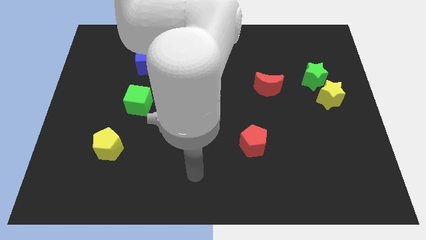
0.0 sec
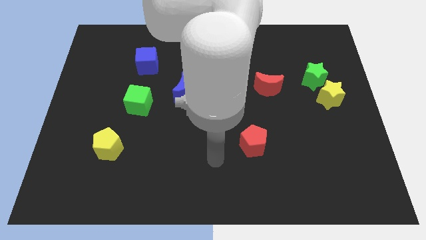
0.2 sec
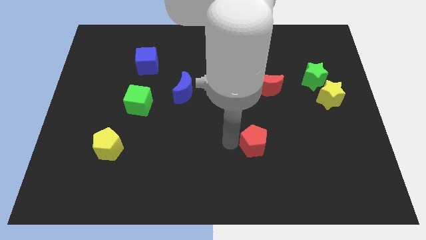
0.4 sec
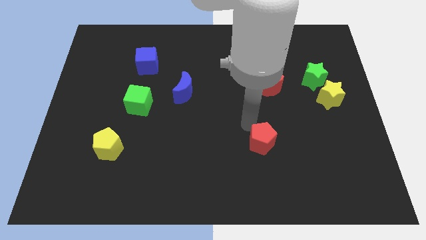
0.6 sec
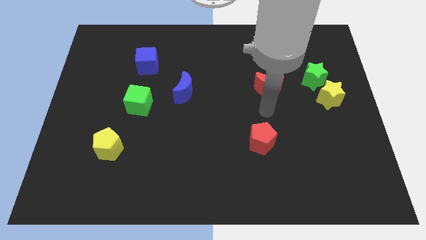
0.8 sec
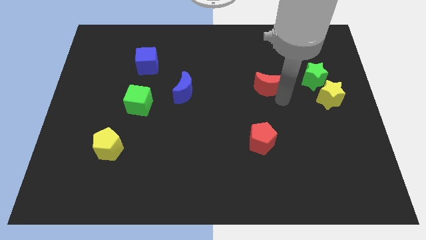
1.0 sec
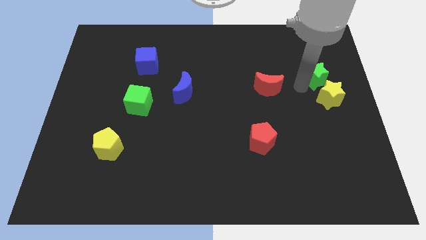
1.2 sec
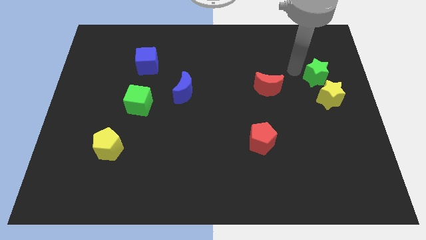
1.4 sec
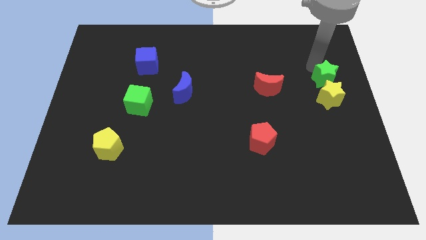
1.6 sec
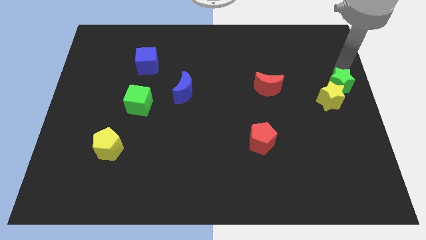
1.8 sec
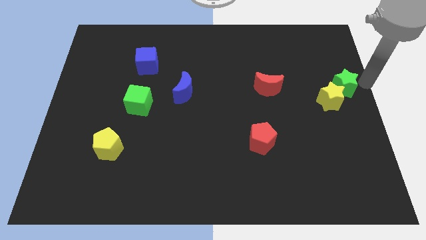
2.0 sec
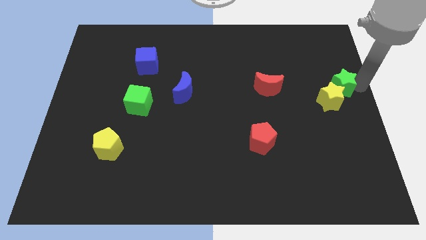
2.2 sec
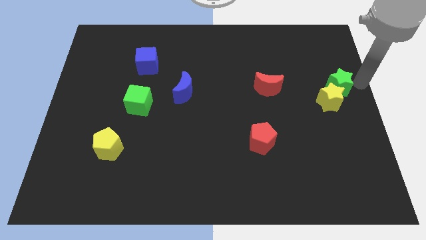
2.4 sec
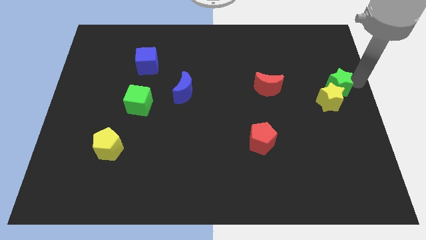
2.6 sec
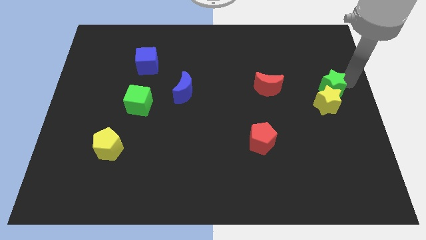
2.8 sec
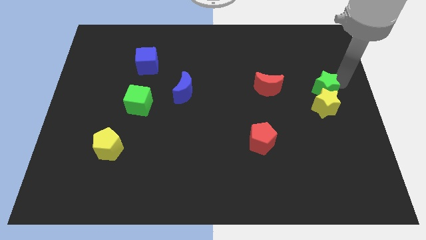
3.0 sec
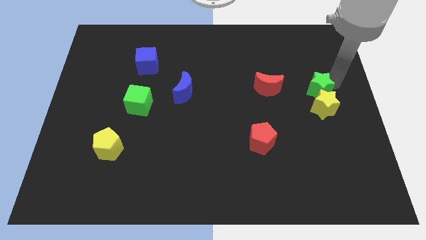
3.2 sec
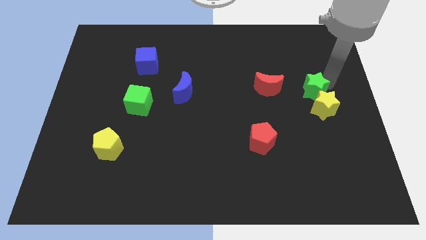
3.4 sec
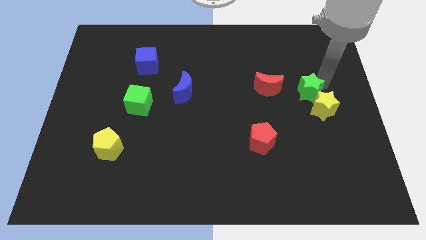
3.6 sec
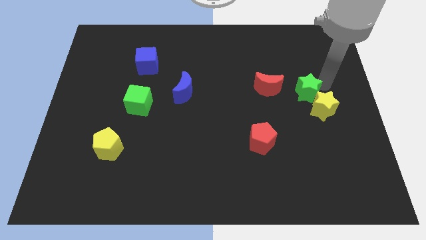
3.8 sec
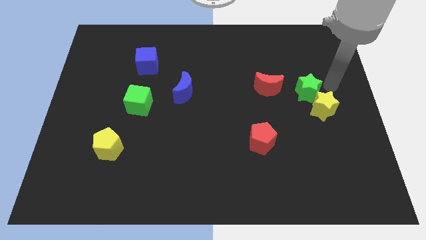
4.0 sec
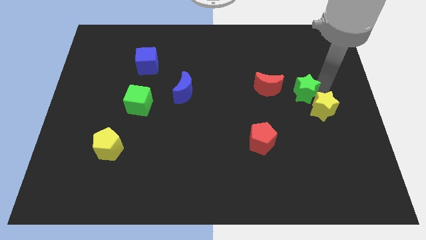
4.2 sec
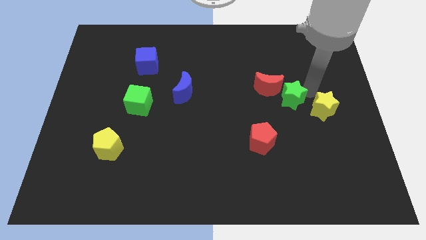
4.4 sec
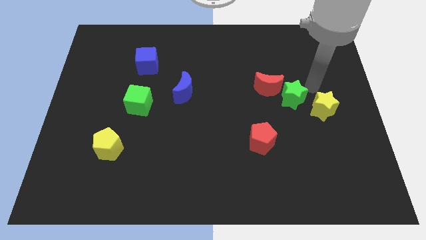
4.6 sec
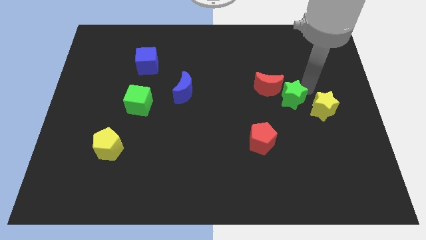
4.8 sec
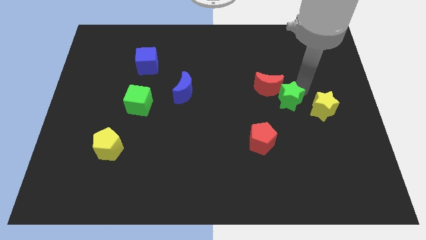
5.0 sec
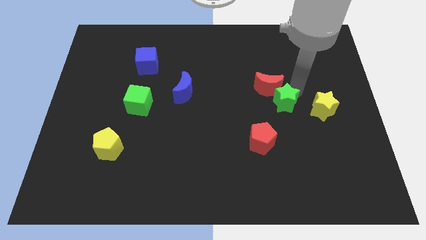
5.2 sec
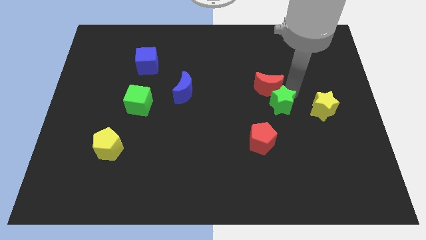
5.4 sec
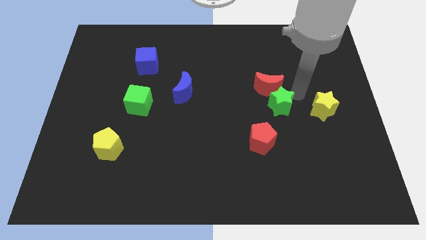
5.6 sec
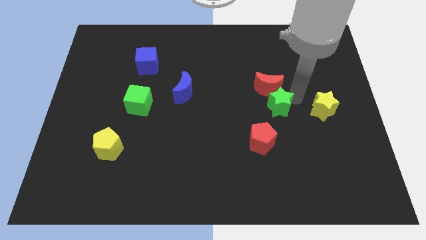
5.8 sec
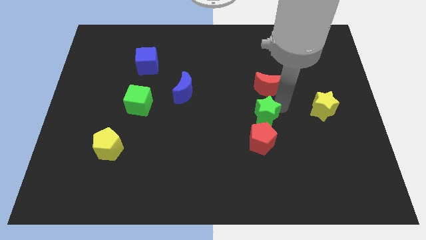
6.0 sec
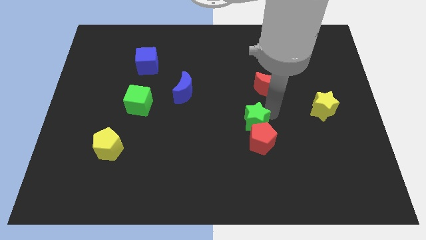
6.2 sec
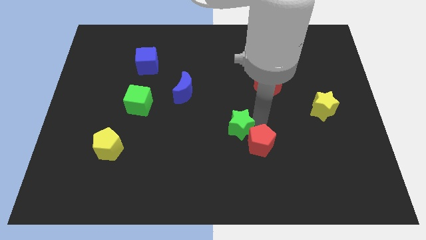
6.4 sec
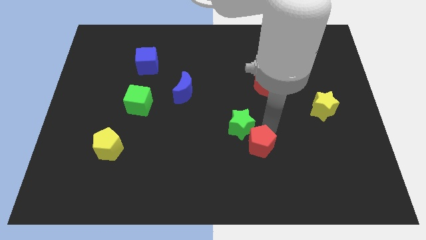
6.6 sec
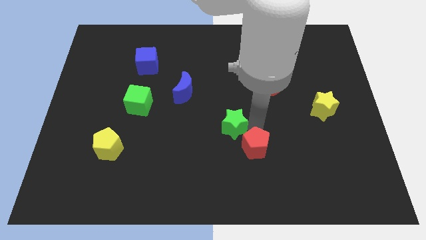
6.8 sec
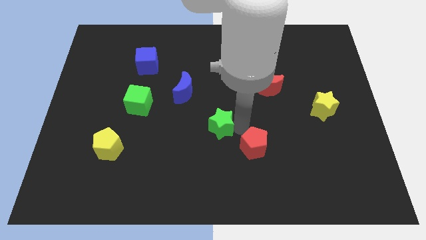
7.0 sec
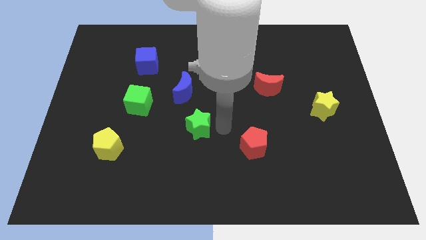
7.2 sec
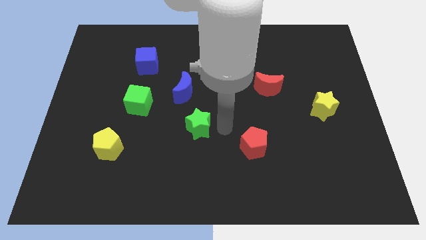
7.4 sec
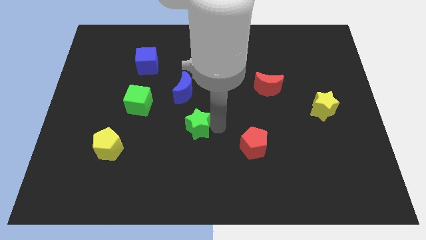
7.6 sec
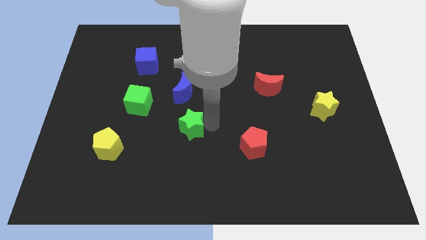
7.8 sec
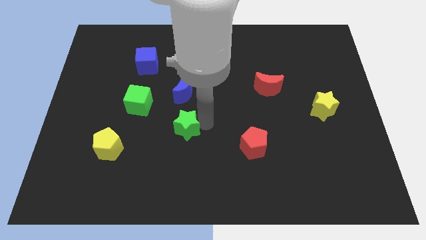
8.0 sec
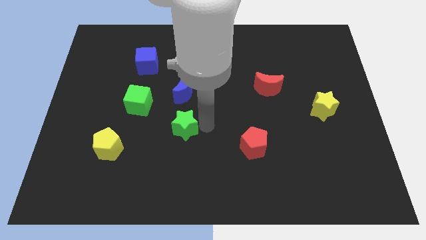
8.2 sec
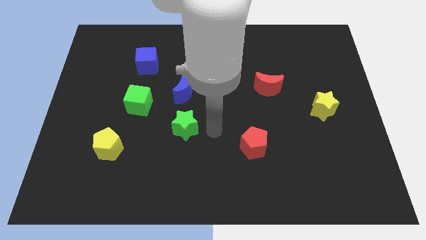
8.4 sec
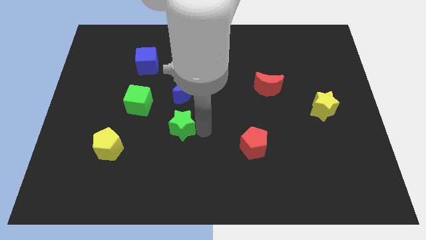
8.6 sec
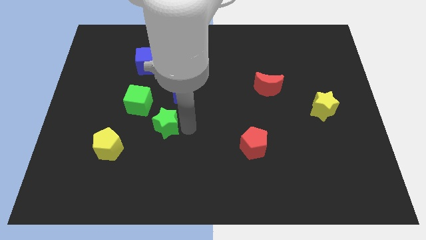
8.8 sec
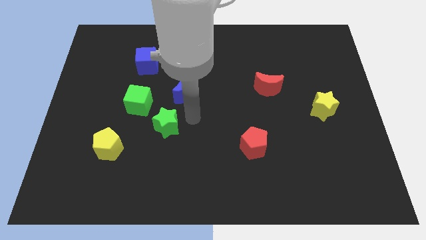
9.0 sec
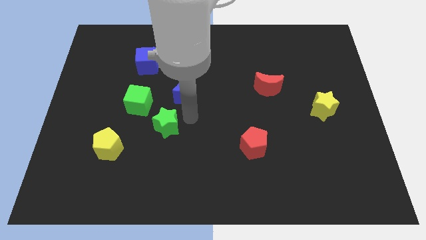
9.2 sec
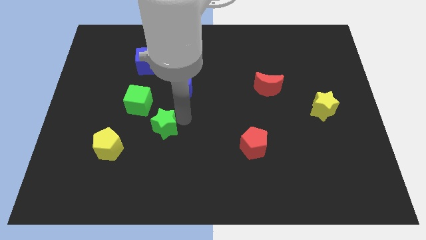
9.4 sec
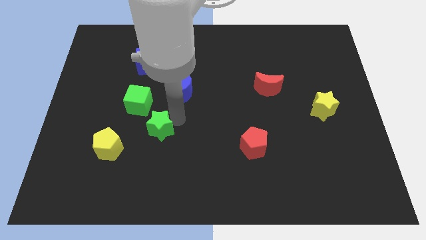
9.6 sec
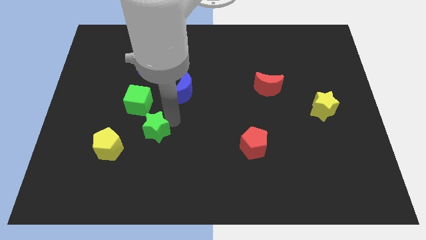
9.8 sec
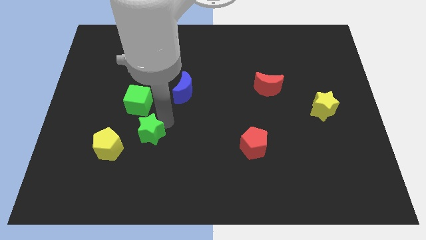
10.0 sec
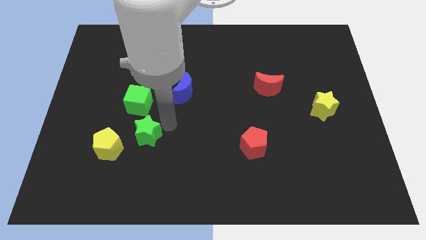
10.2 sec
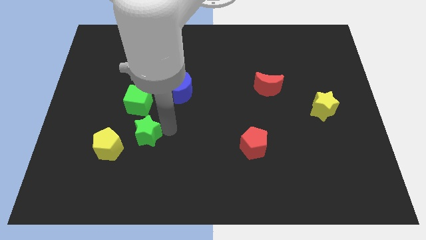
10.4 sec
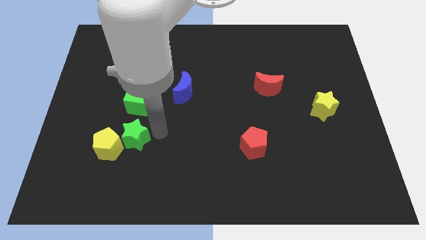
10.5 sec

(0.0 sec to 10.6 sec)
slide the green star next to the yellow pentagon

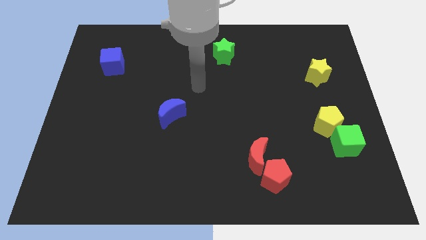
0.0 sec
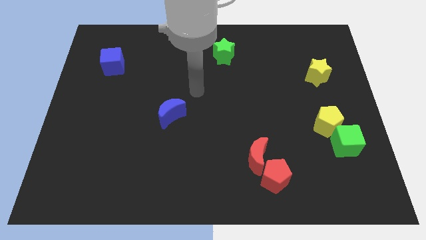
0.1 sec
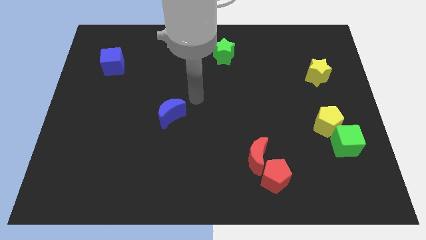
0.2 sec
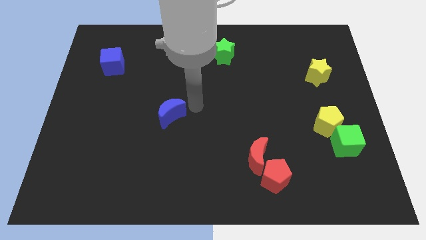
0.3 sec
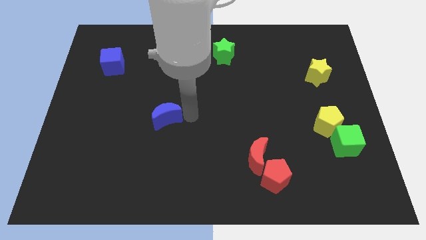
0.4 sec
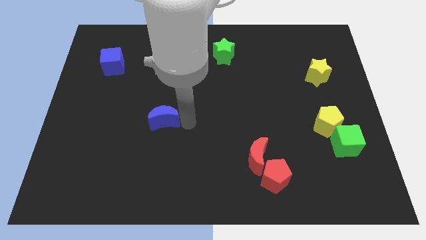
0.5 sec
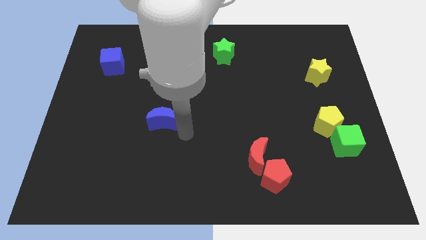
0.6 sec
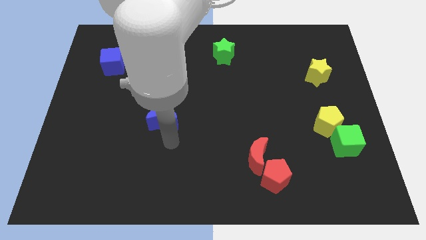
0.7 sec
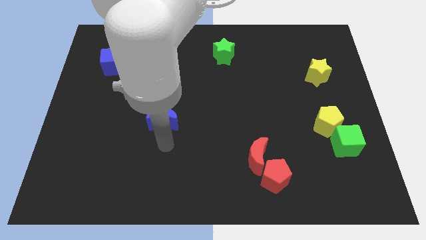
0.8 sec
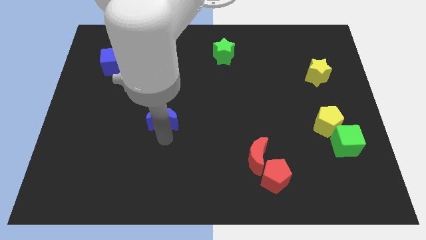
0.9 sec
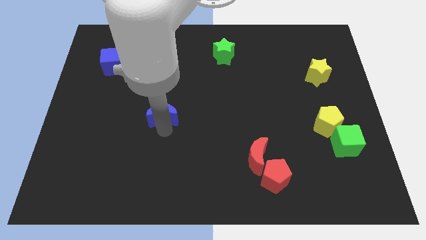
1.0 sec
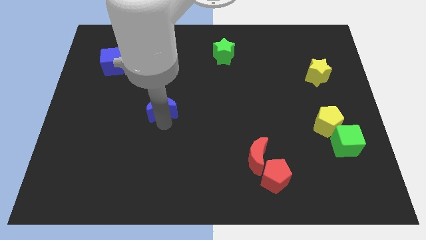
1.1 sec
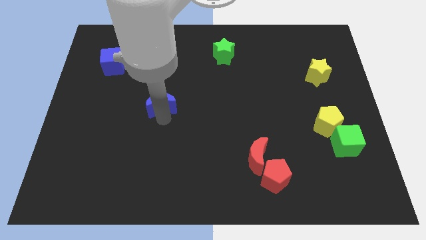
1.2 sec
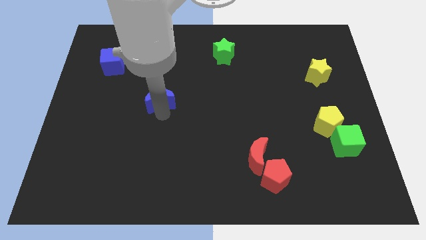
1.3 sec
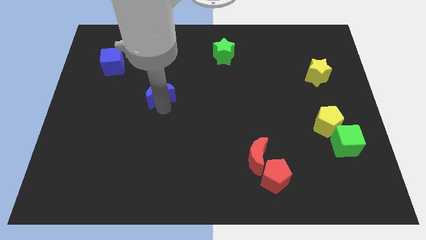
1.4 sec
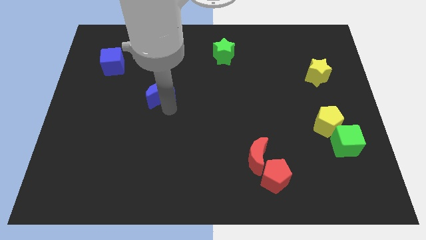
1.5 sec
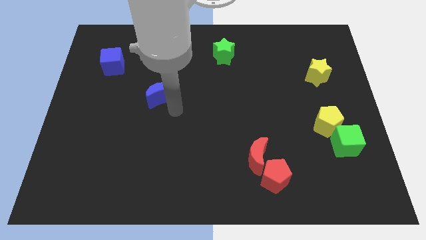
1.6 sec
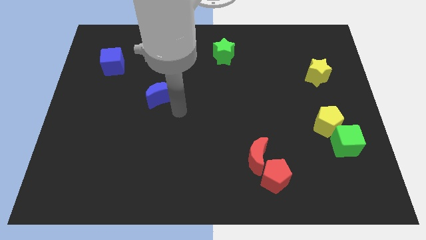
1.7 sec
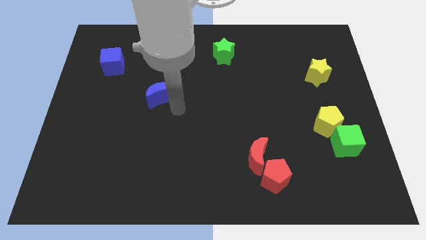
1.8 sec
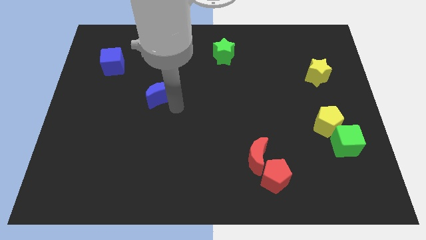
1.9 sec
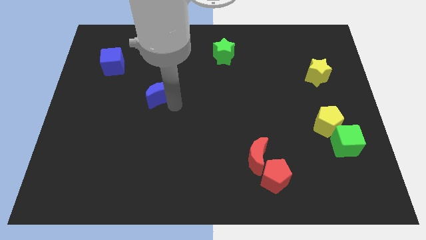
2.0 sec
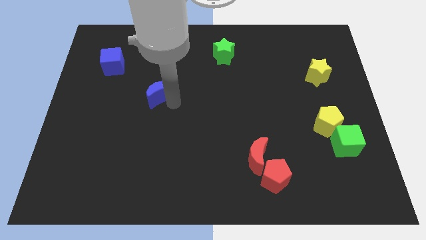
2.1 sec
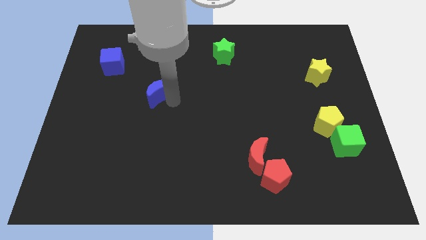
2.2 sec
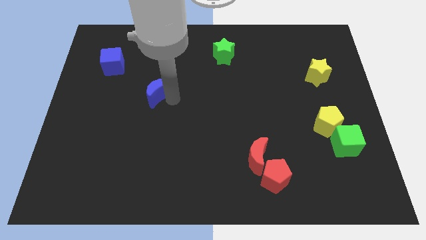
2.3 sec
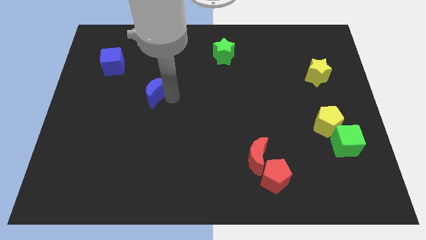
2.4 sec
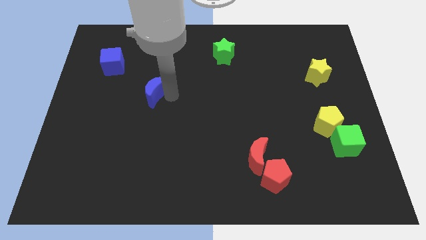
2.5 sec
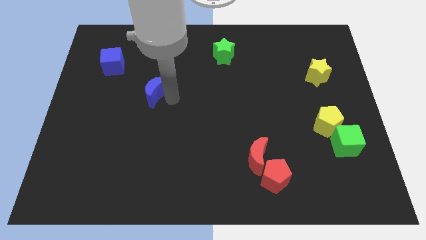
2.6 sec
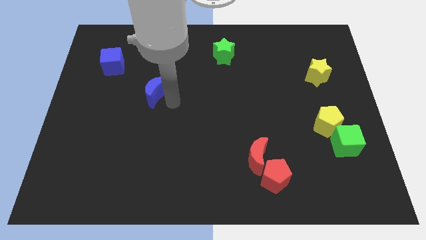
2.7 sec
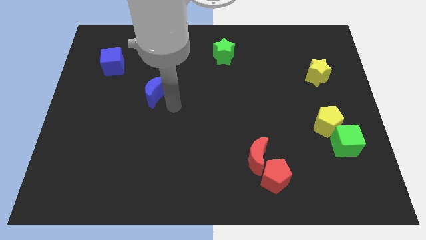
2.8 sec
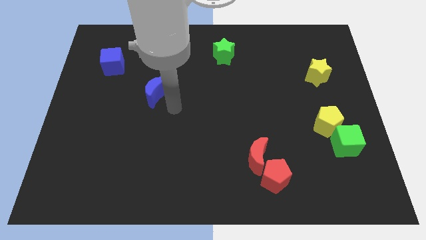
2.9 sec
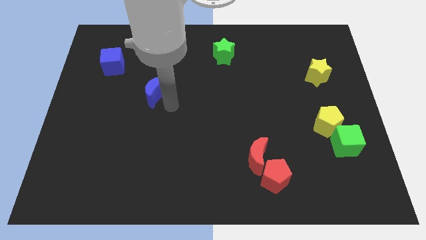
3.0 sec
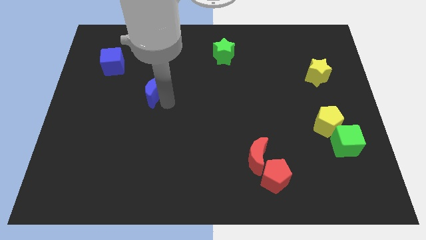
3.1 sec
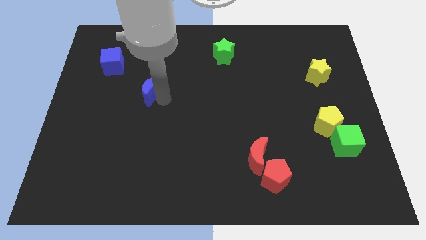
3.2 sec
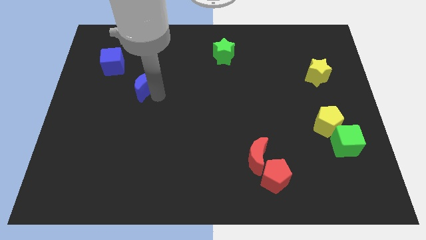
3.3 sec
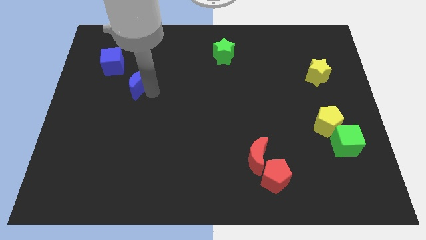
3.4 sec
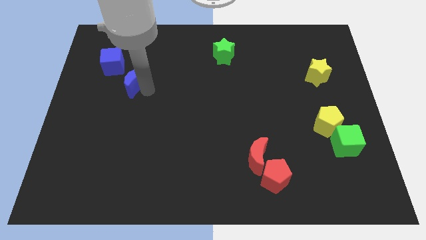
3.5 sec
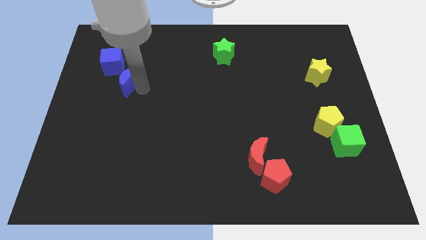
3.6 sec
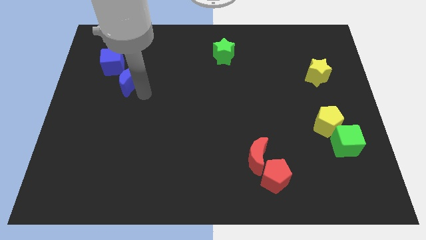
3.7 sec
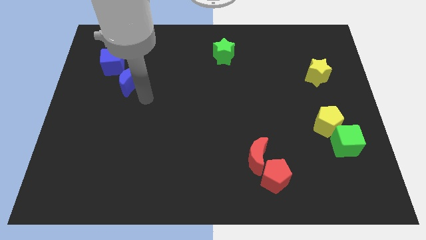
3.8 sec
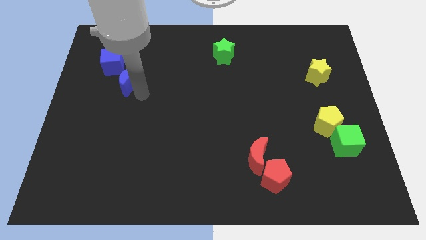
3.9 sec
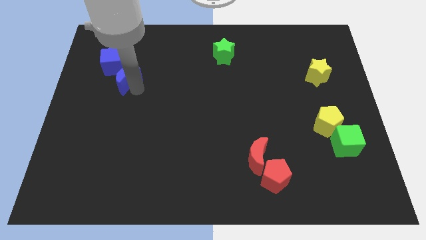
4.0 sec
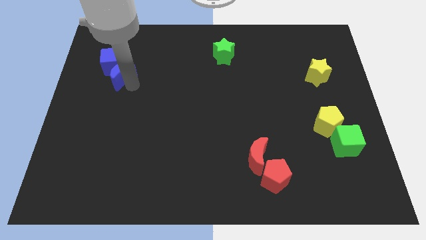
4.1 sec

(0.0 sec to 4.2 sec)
move the blue moon to the blue cube
